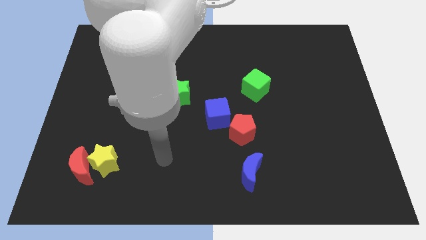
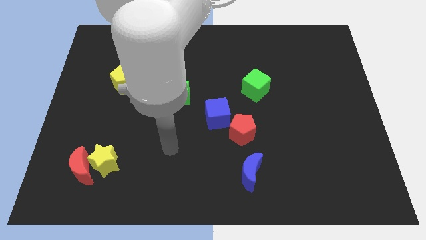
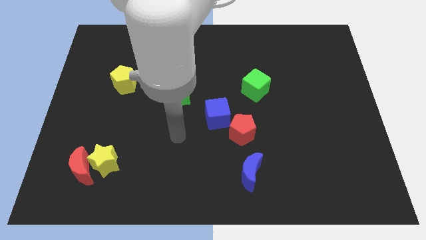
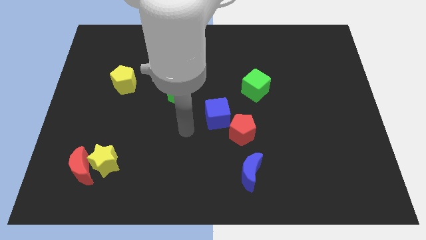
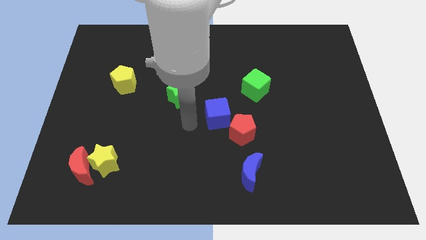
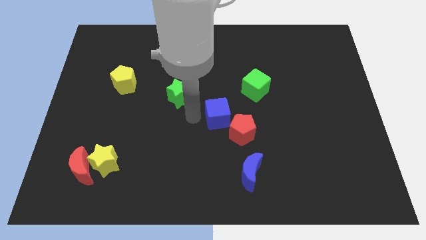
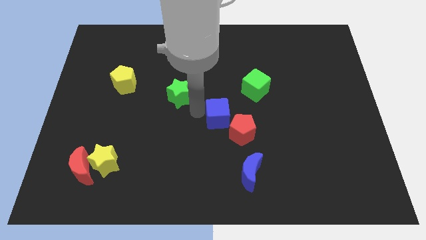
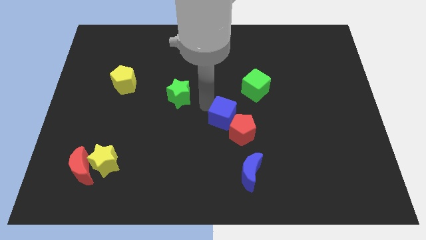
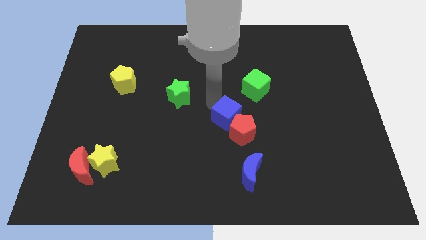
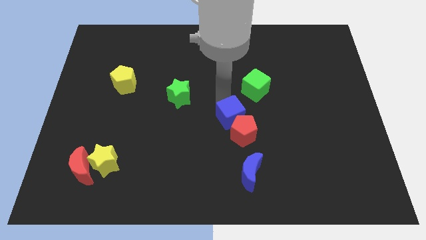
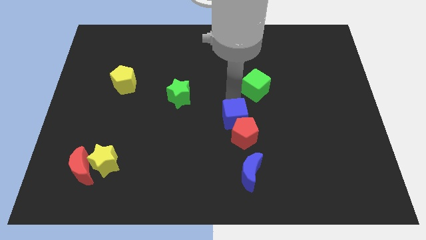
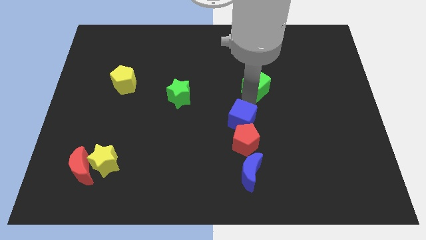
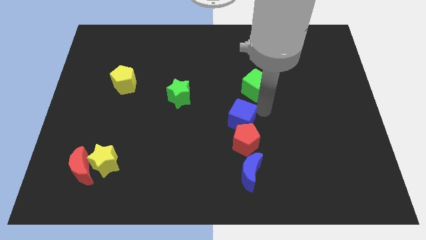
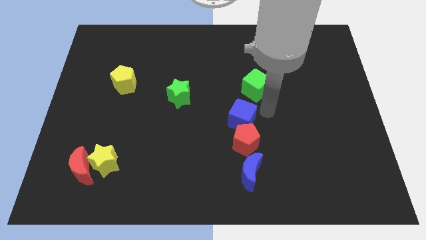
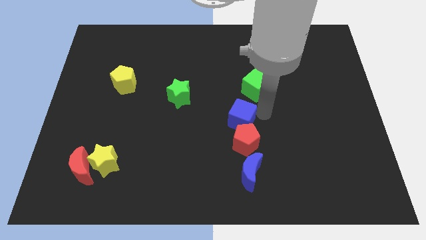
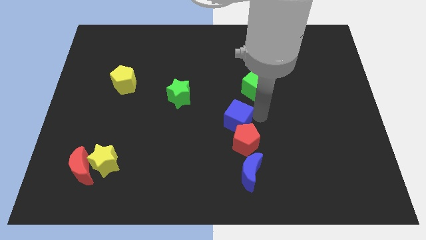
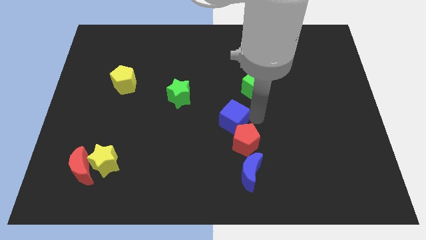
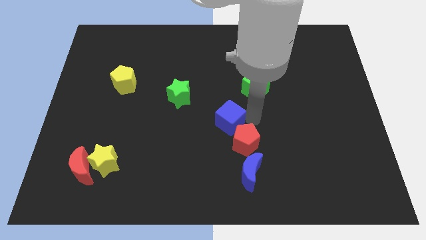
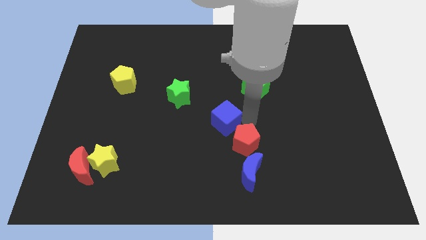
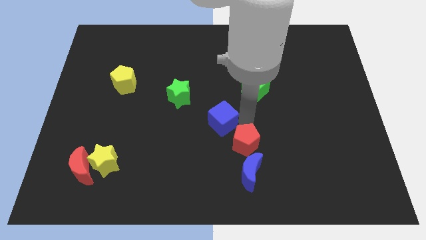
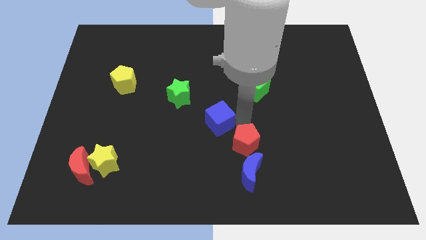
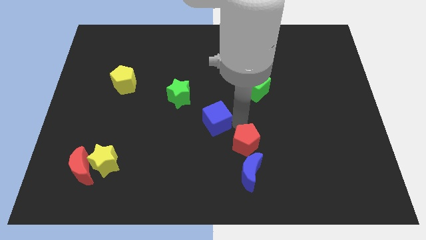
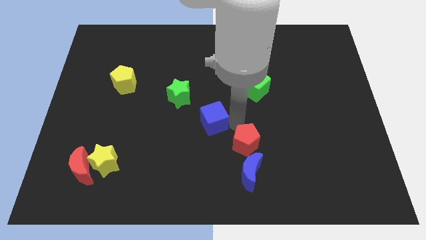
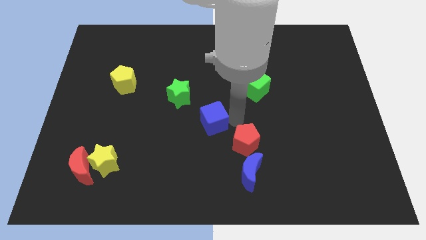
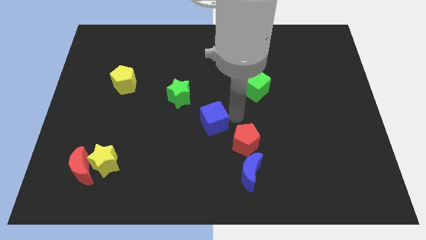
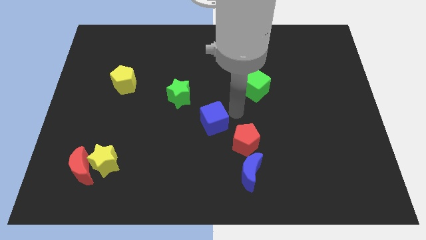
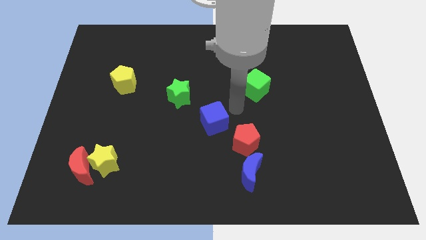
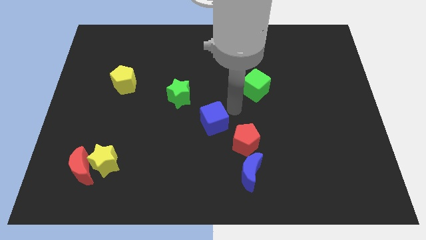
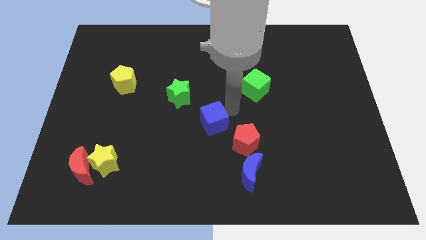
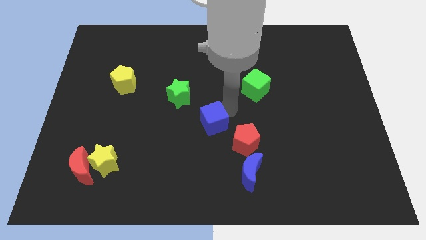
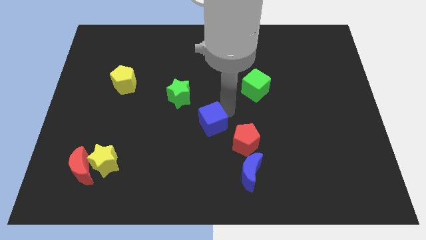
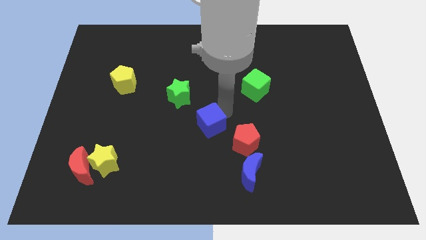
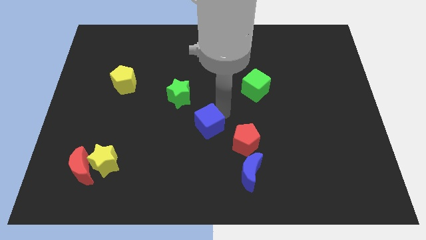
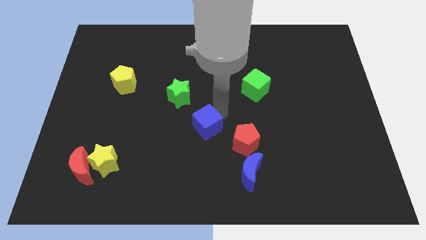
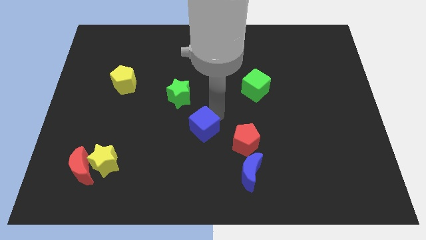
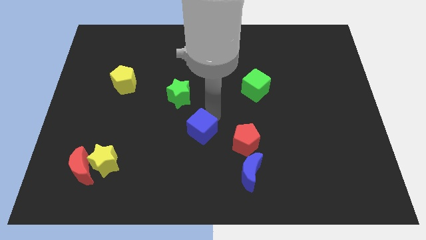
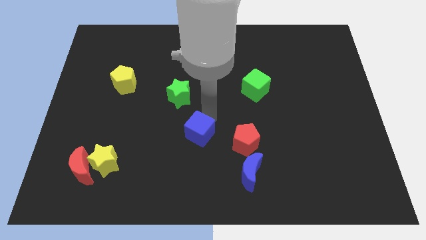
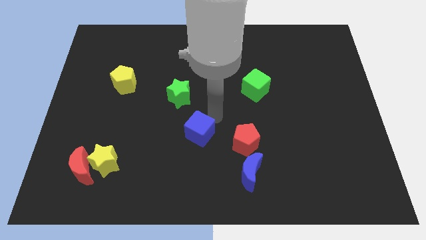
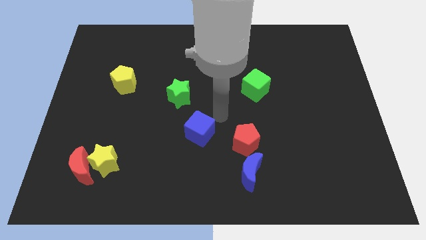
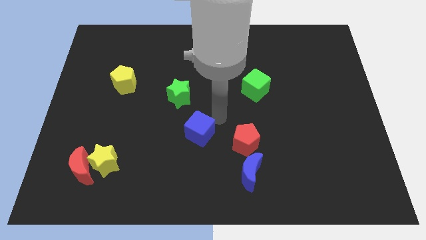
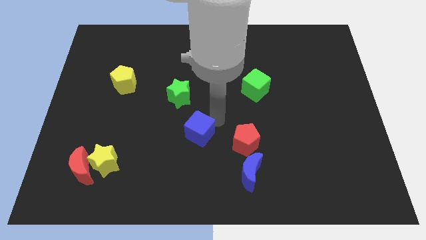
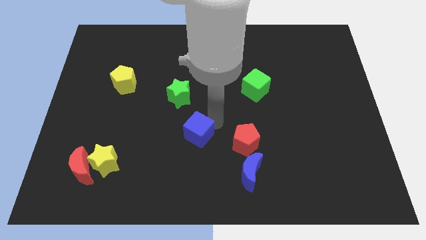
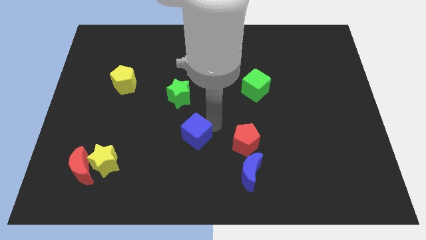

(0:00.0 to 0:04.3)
slide the blue cube a little bit down and to the left

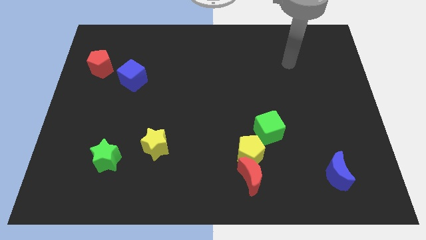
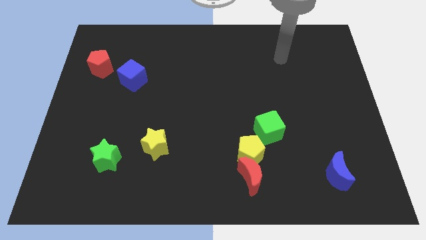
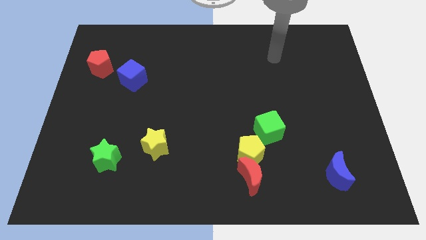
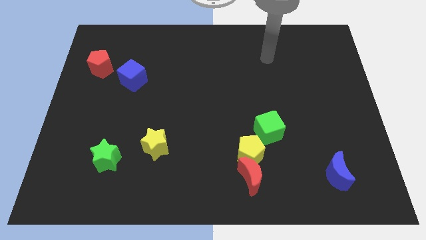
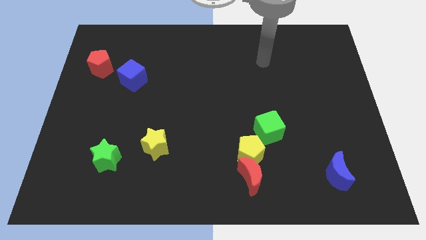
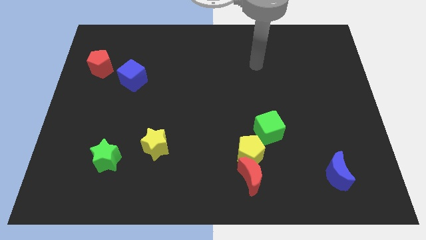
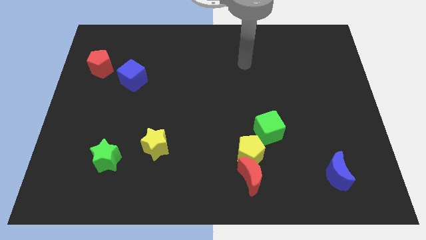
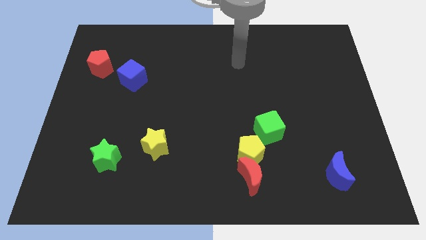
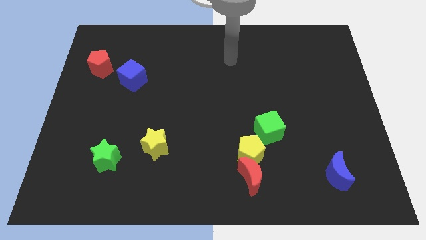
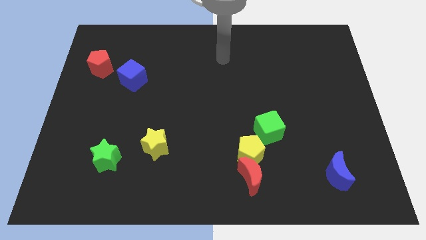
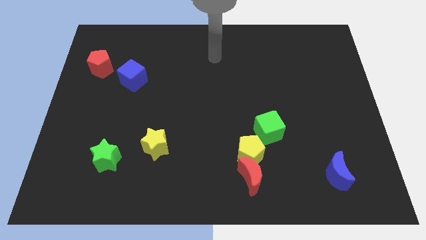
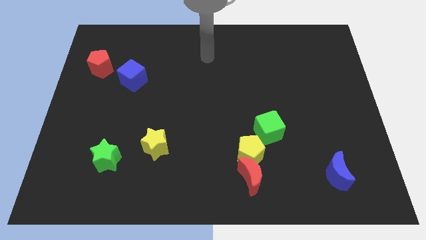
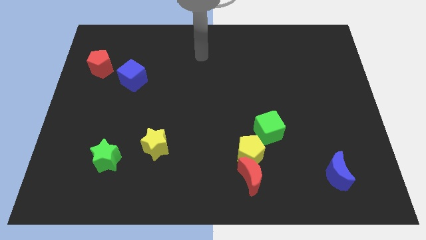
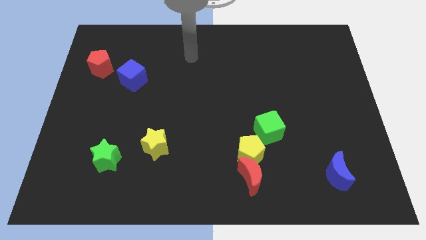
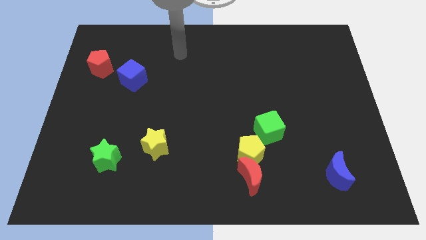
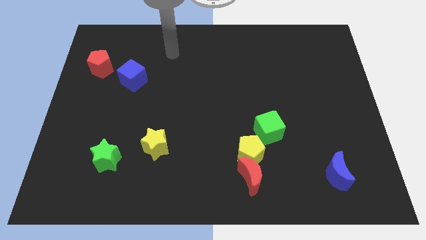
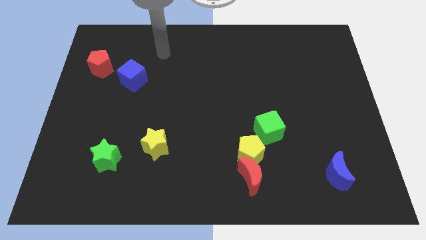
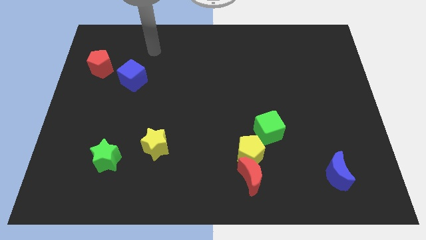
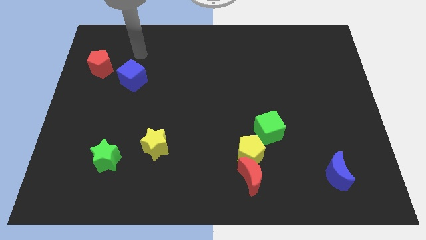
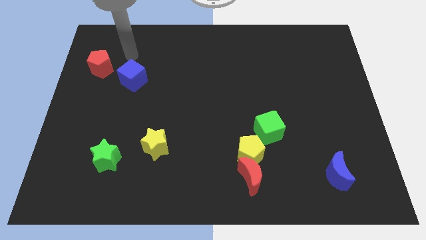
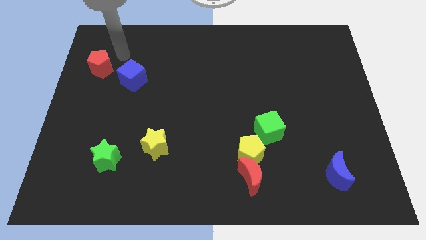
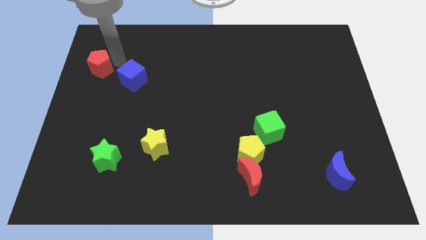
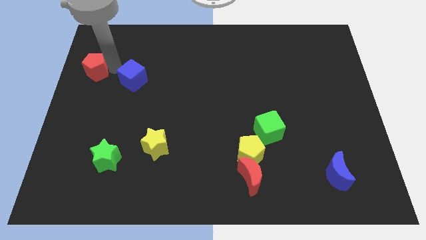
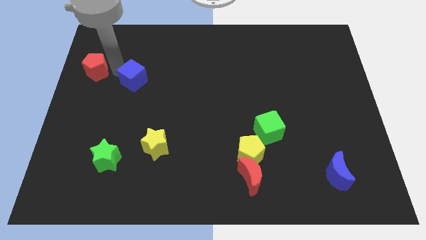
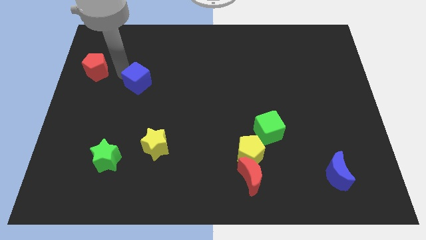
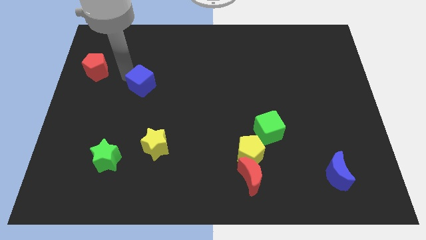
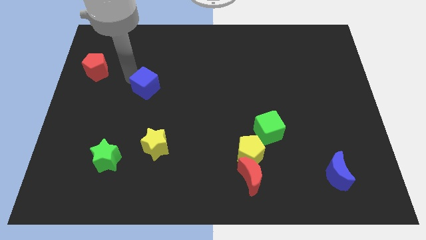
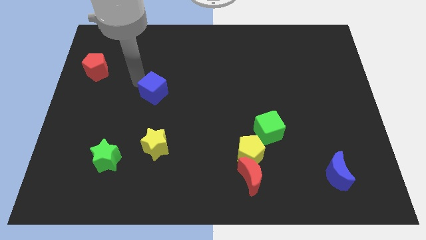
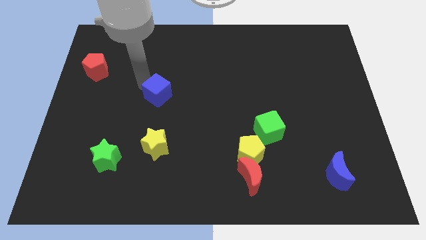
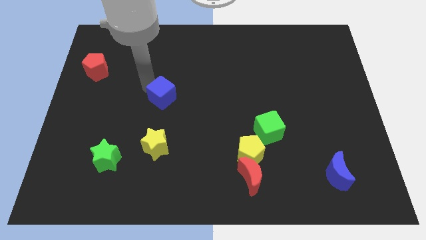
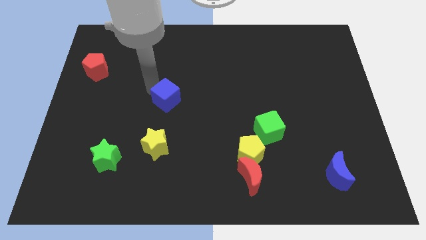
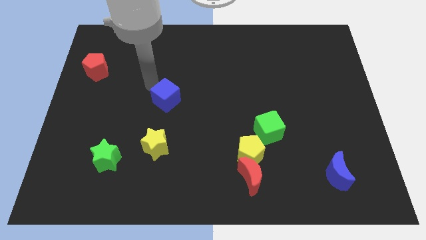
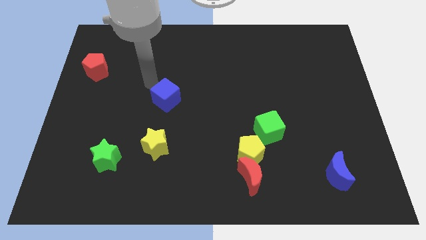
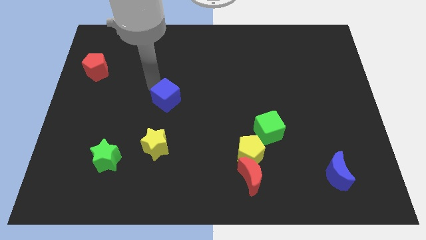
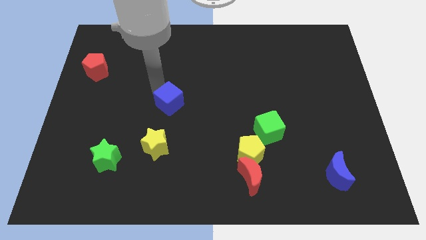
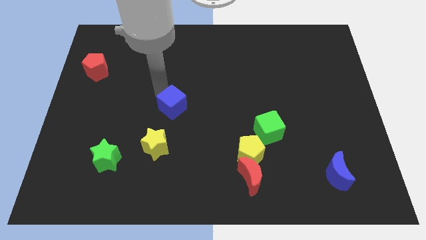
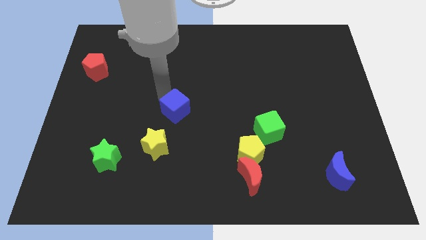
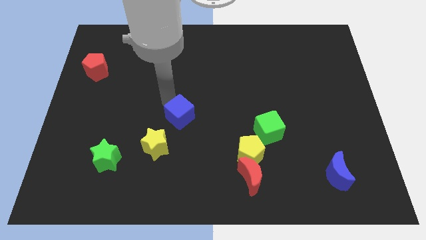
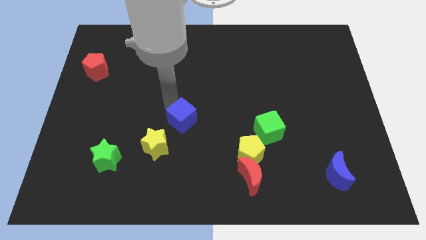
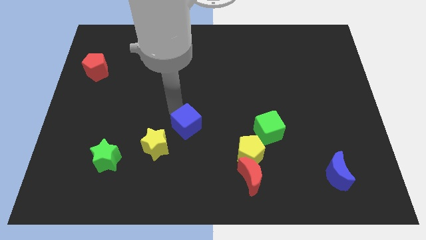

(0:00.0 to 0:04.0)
push the blue cube downwards and right diagonally
